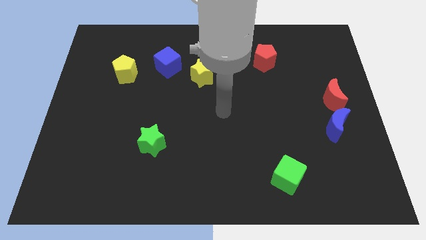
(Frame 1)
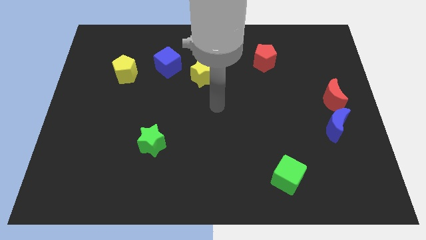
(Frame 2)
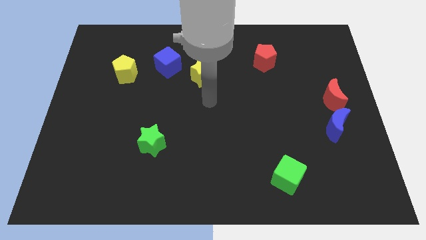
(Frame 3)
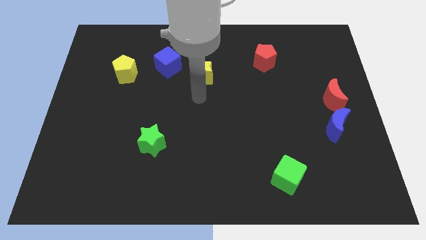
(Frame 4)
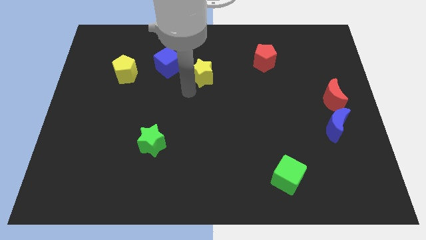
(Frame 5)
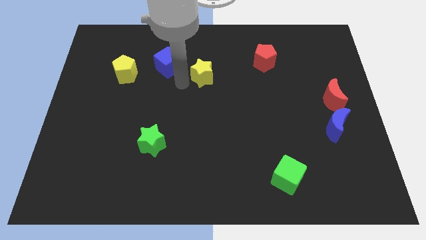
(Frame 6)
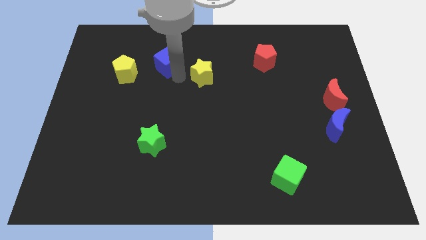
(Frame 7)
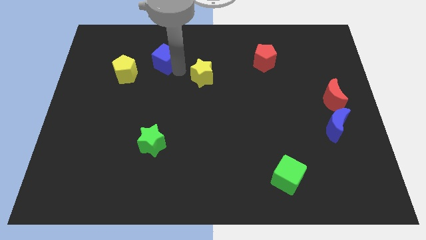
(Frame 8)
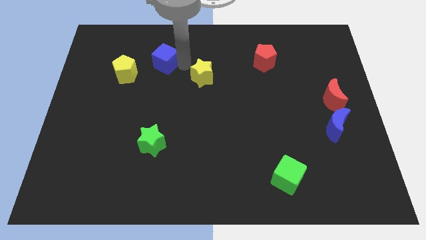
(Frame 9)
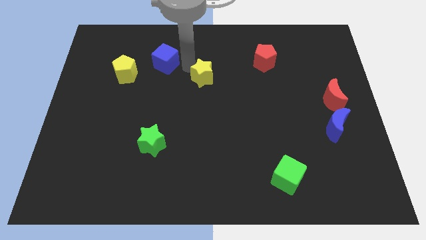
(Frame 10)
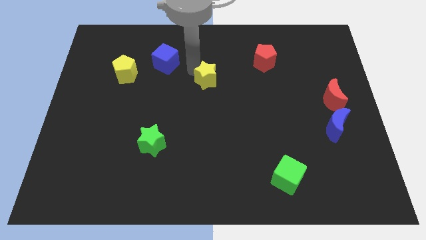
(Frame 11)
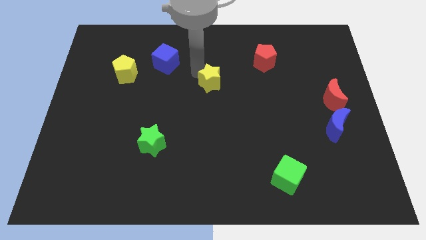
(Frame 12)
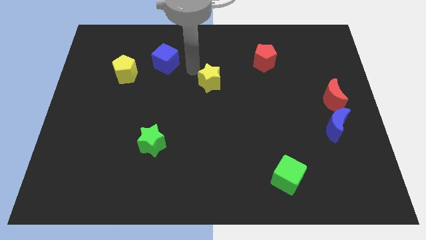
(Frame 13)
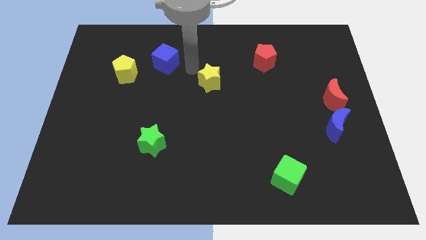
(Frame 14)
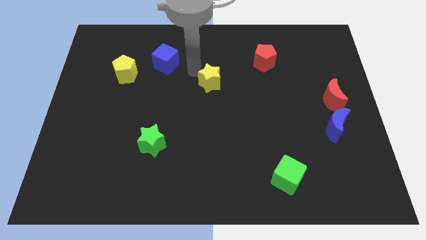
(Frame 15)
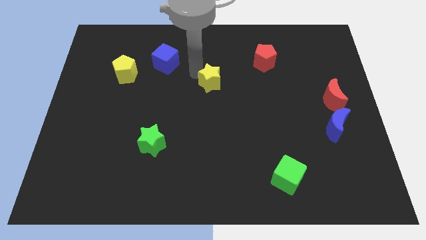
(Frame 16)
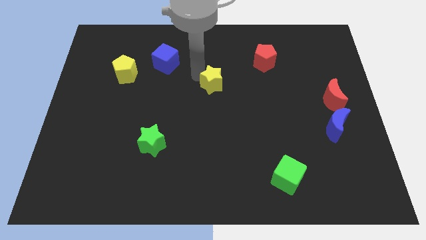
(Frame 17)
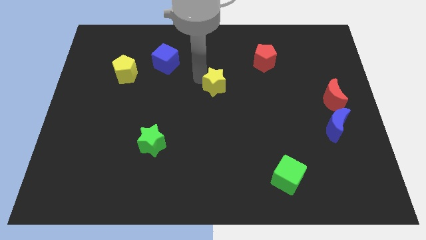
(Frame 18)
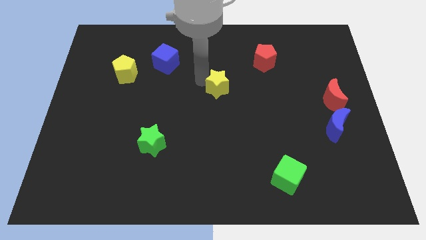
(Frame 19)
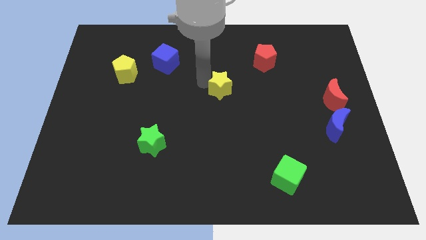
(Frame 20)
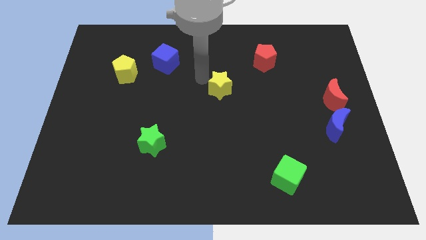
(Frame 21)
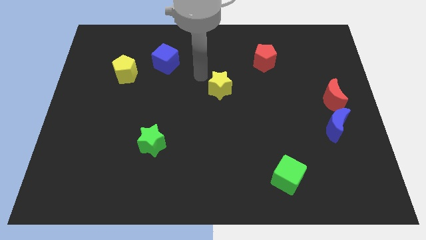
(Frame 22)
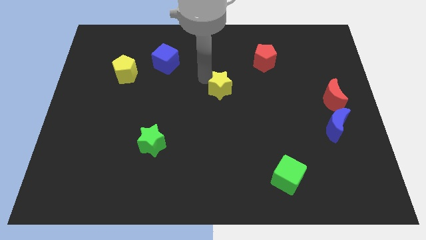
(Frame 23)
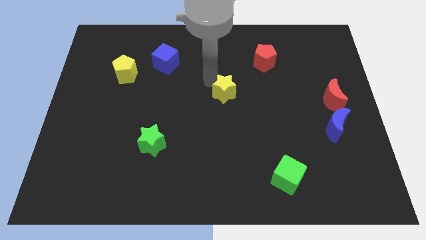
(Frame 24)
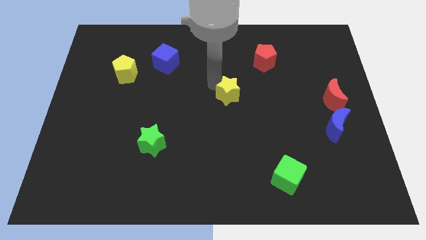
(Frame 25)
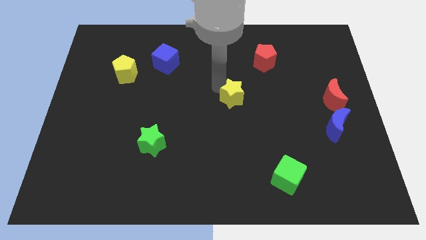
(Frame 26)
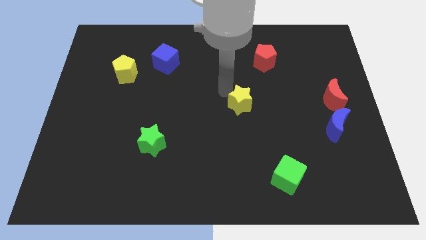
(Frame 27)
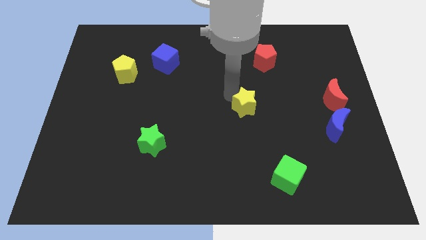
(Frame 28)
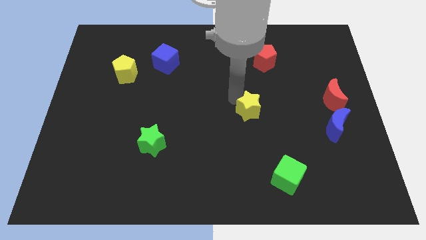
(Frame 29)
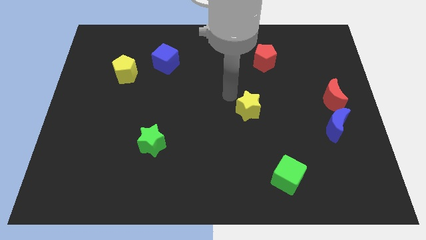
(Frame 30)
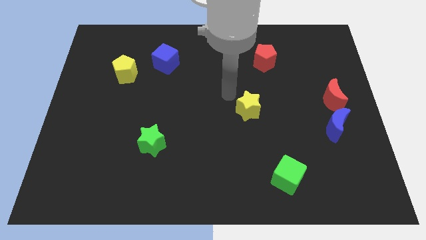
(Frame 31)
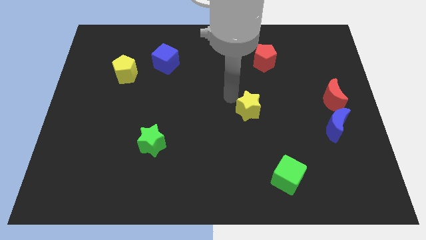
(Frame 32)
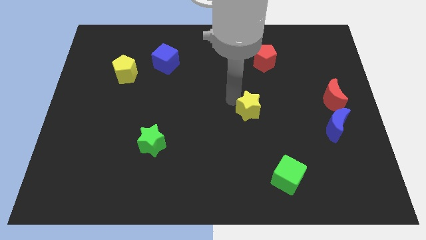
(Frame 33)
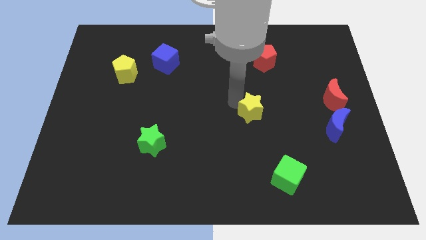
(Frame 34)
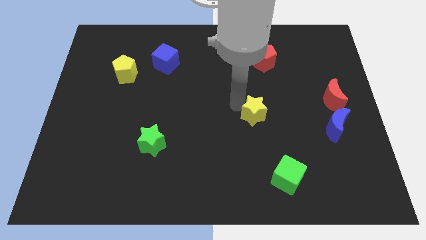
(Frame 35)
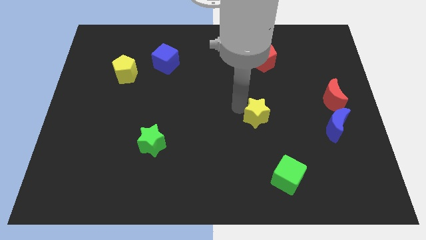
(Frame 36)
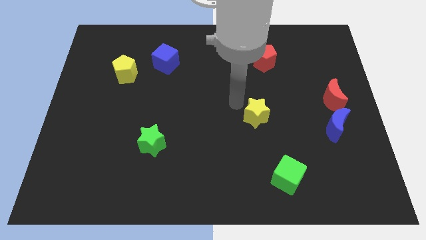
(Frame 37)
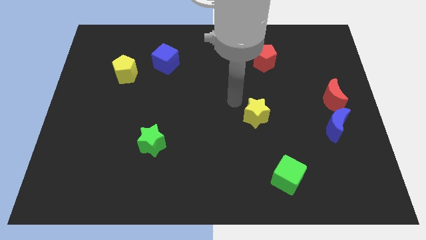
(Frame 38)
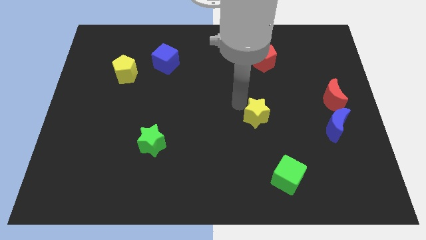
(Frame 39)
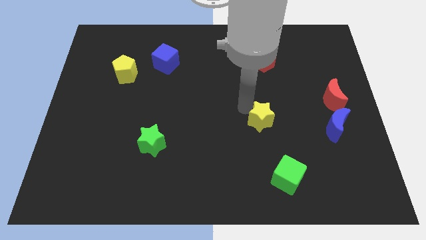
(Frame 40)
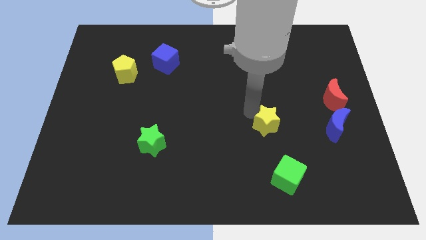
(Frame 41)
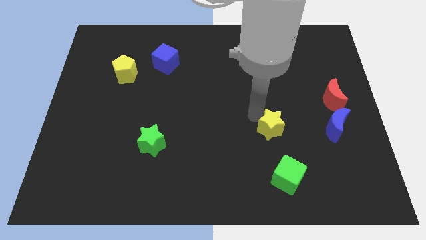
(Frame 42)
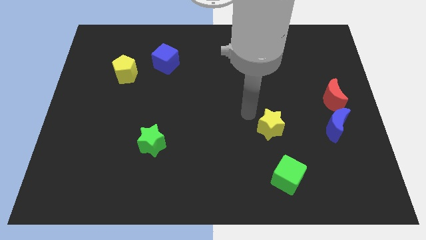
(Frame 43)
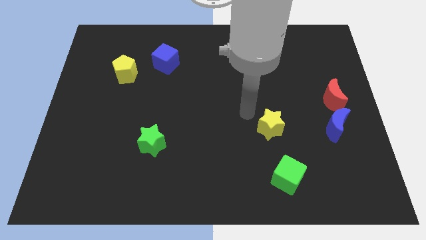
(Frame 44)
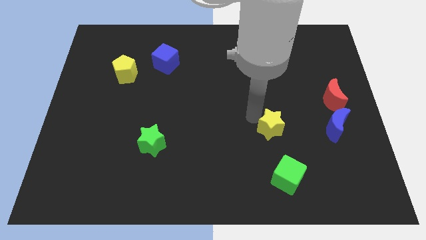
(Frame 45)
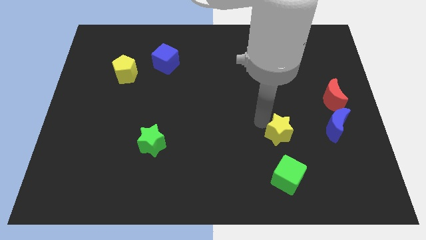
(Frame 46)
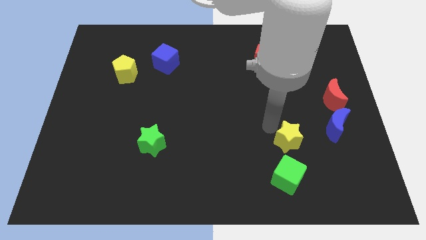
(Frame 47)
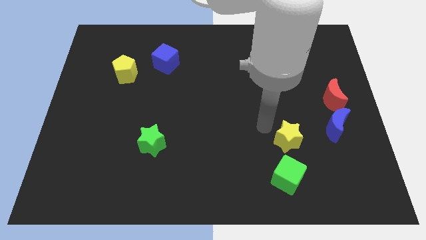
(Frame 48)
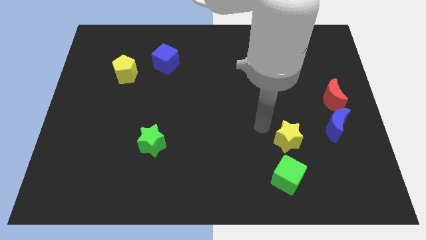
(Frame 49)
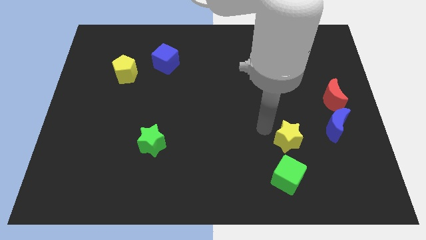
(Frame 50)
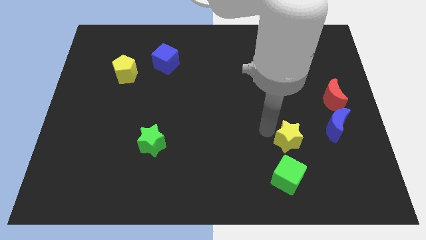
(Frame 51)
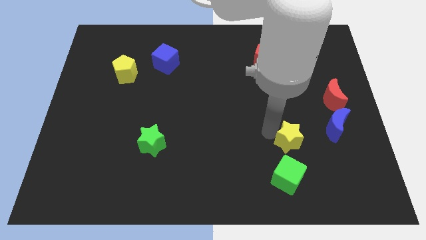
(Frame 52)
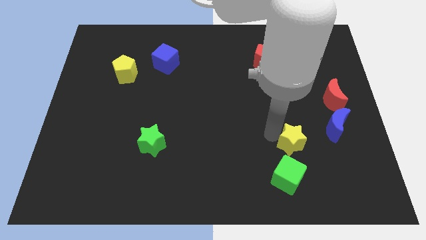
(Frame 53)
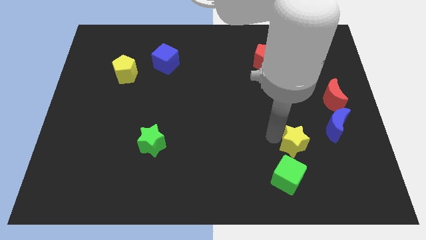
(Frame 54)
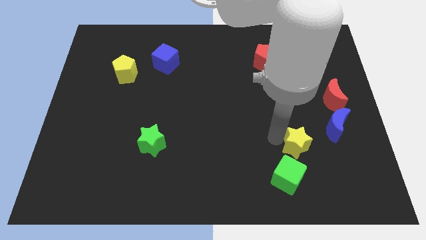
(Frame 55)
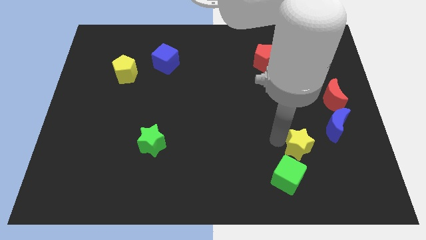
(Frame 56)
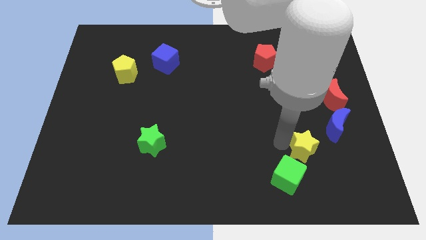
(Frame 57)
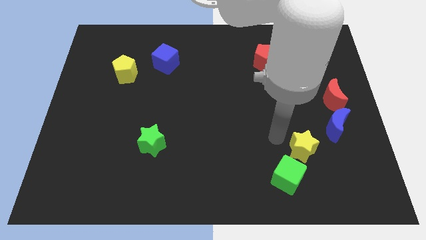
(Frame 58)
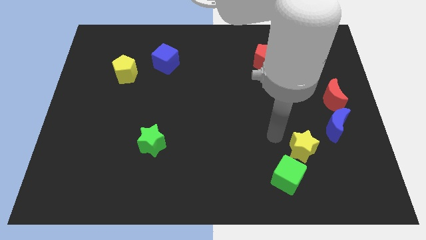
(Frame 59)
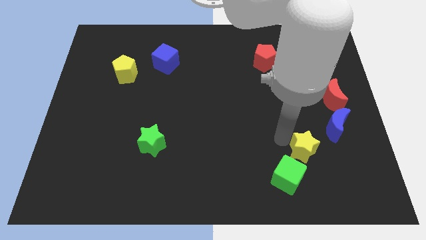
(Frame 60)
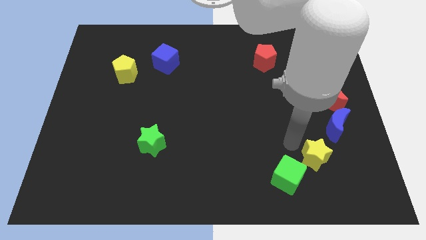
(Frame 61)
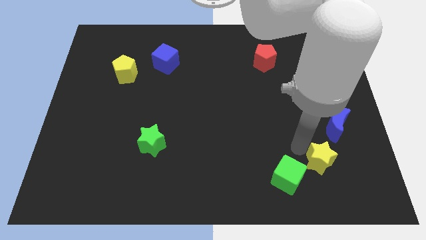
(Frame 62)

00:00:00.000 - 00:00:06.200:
move the yellow star below the blue moon

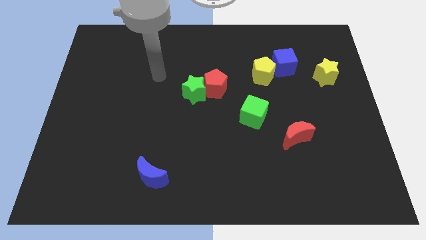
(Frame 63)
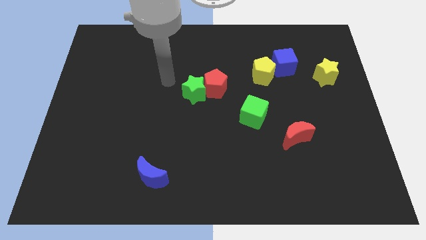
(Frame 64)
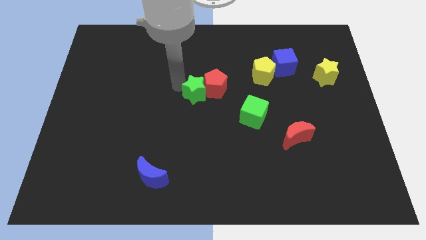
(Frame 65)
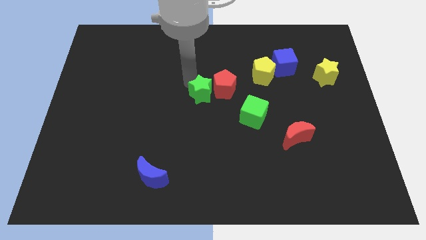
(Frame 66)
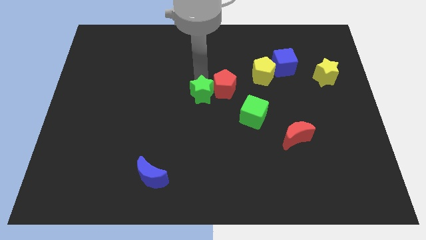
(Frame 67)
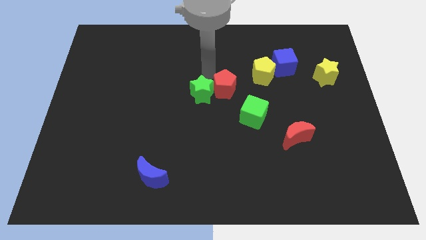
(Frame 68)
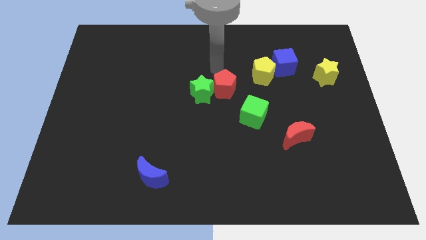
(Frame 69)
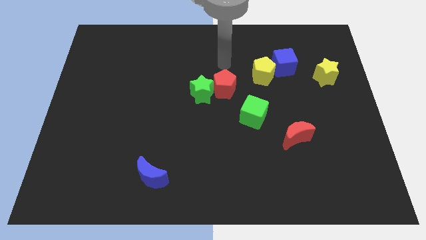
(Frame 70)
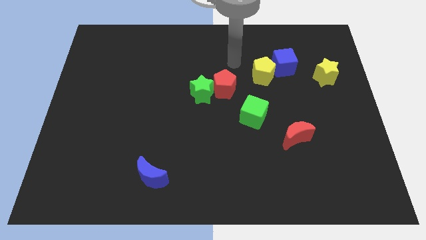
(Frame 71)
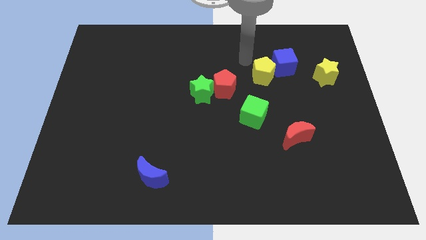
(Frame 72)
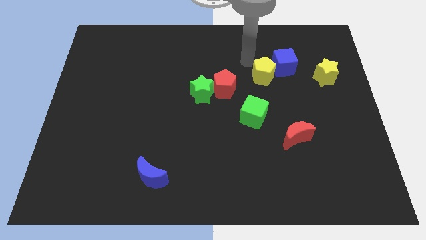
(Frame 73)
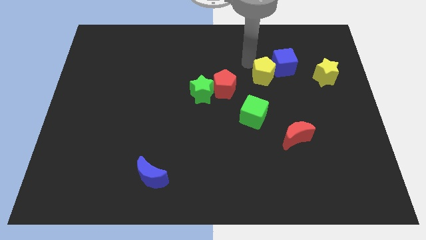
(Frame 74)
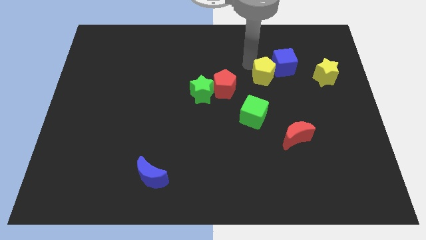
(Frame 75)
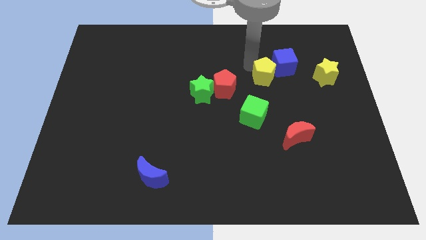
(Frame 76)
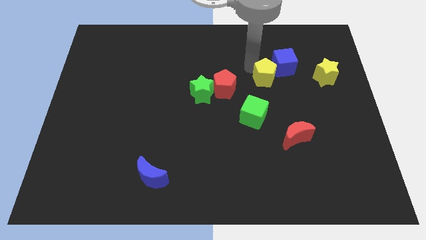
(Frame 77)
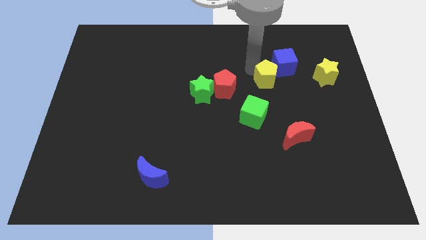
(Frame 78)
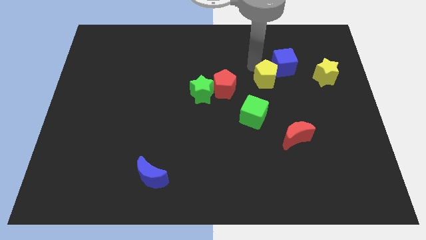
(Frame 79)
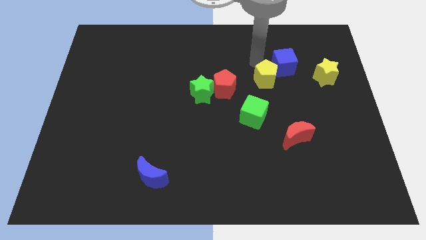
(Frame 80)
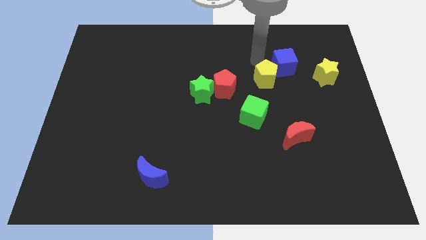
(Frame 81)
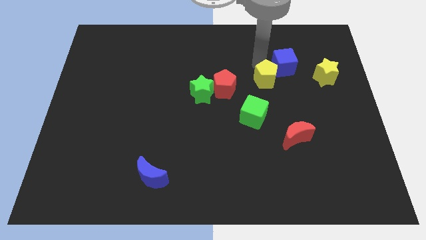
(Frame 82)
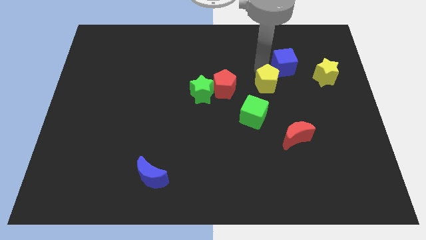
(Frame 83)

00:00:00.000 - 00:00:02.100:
push the yellow pentagon diagonally up and to the right of the green cube
